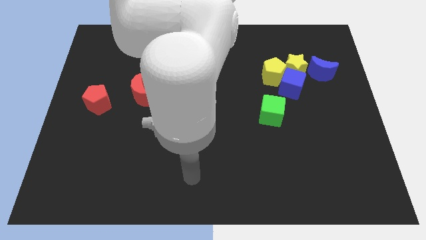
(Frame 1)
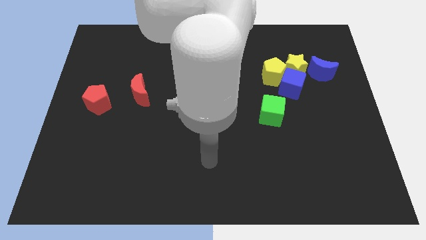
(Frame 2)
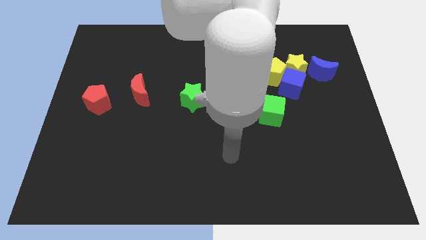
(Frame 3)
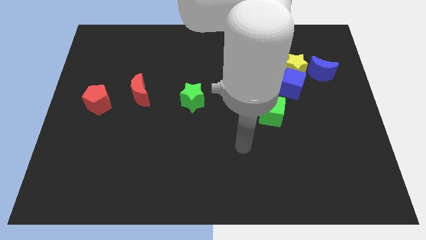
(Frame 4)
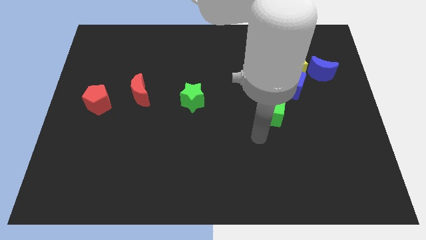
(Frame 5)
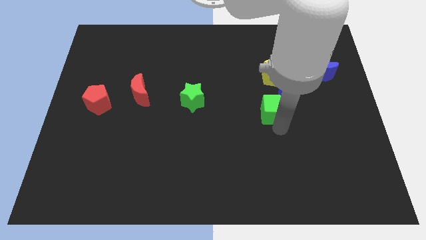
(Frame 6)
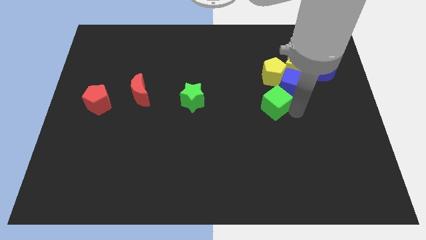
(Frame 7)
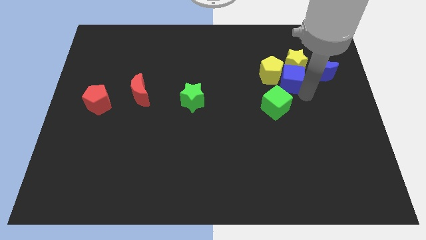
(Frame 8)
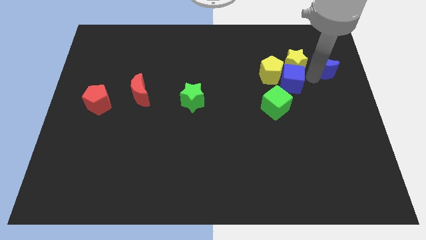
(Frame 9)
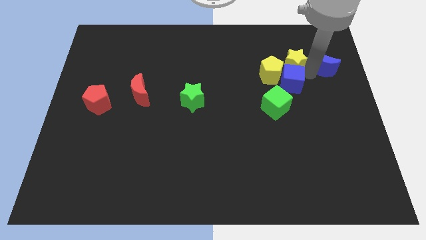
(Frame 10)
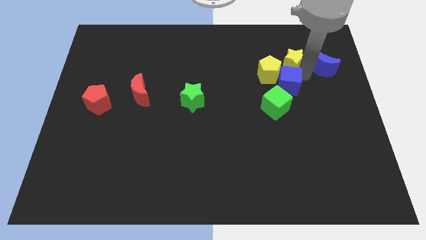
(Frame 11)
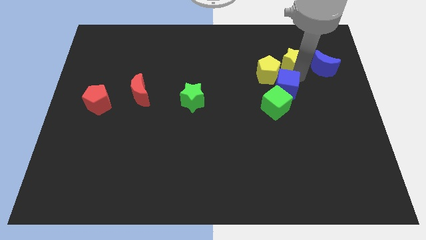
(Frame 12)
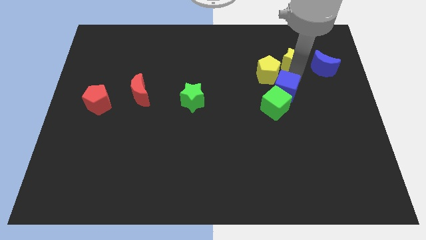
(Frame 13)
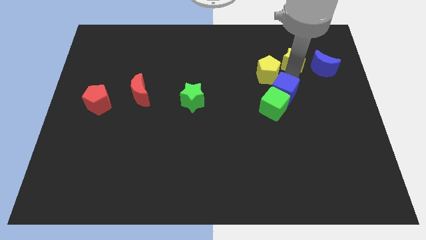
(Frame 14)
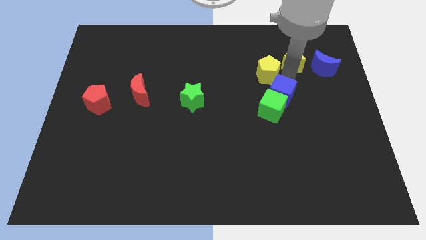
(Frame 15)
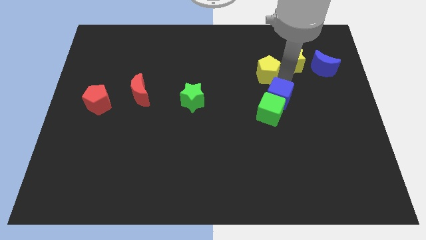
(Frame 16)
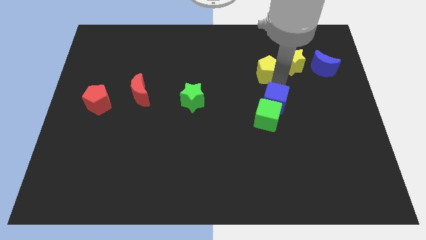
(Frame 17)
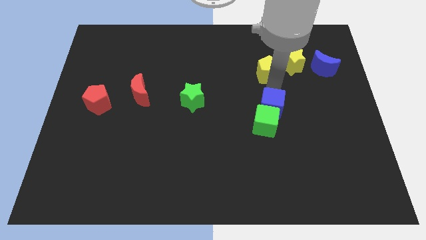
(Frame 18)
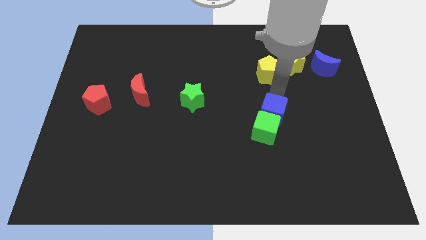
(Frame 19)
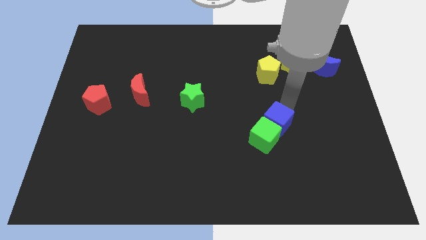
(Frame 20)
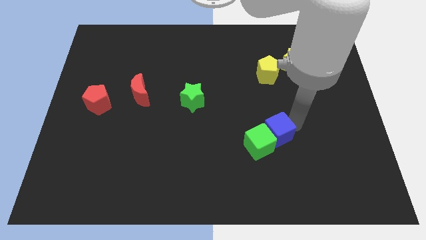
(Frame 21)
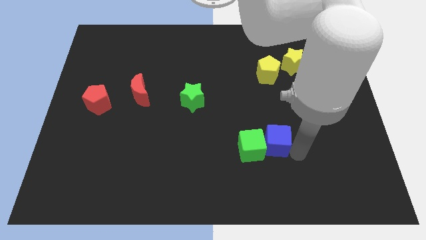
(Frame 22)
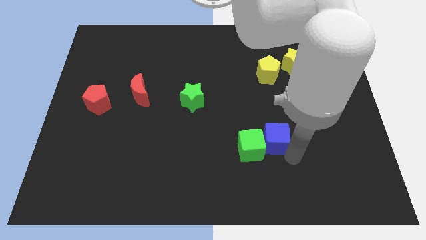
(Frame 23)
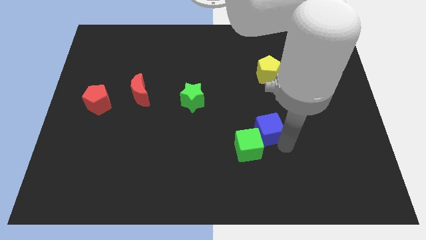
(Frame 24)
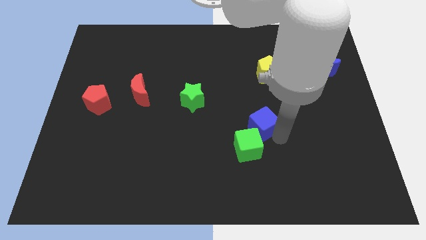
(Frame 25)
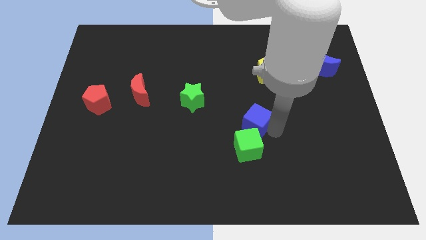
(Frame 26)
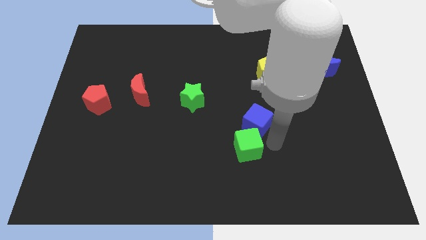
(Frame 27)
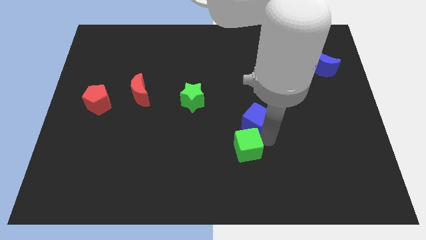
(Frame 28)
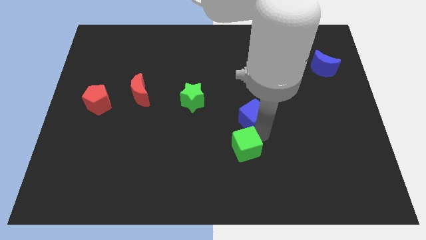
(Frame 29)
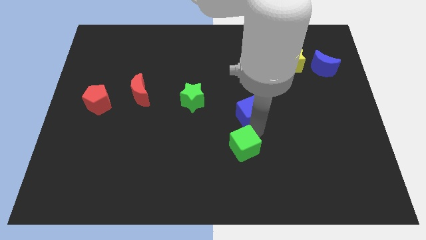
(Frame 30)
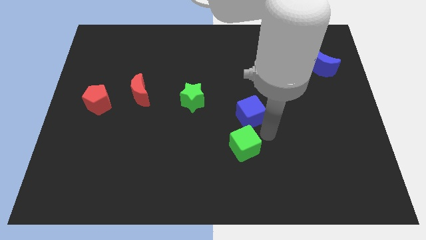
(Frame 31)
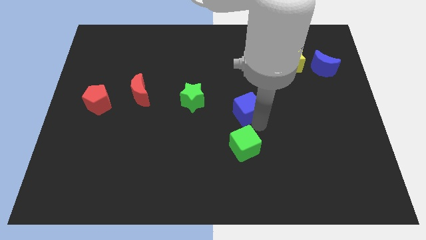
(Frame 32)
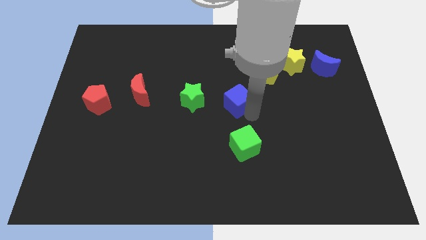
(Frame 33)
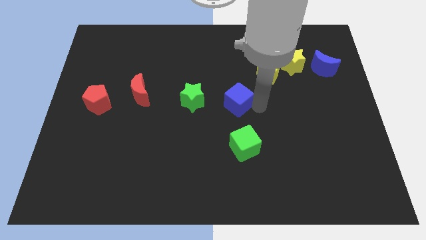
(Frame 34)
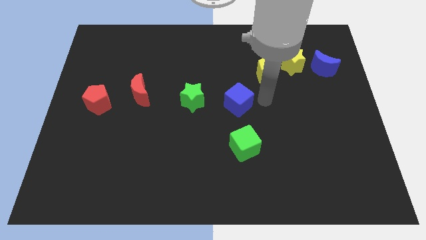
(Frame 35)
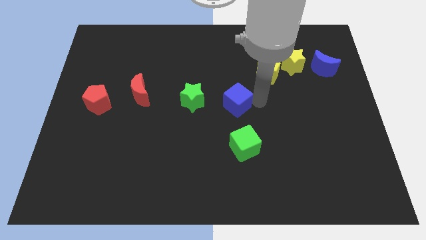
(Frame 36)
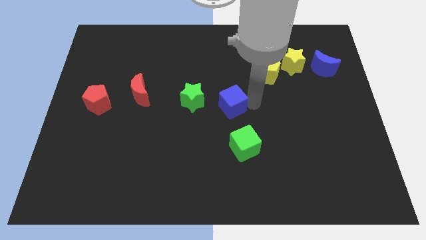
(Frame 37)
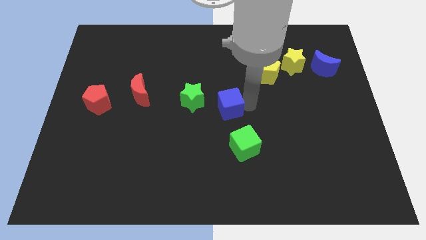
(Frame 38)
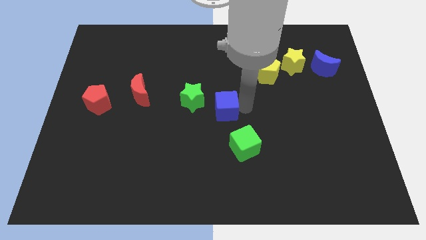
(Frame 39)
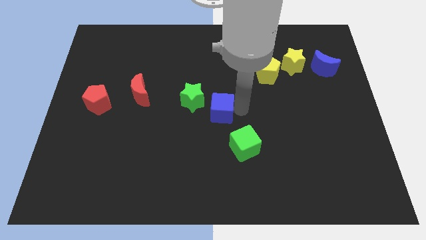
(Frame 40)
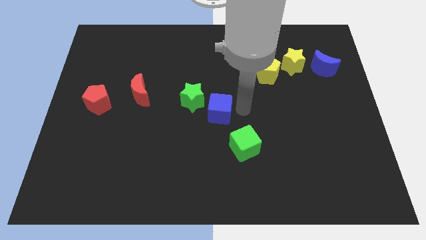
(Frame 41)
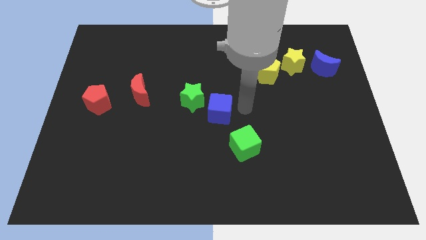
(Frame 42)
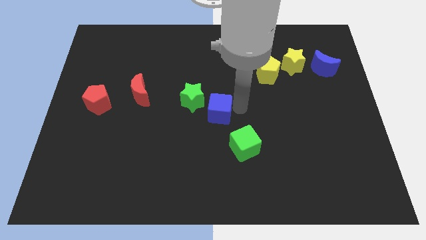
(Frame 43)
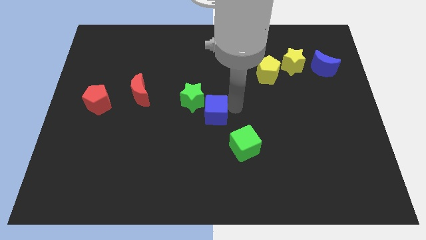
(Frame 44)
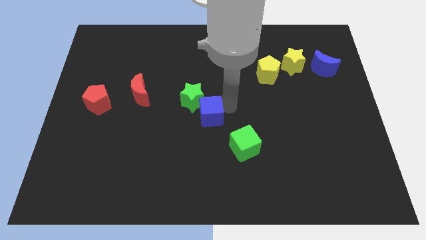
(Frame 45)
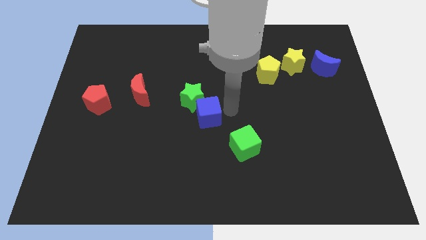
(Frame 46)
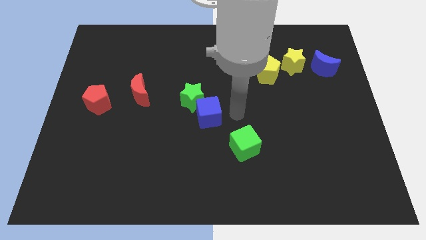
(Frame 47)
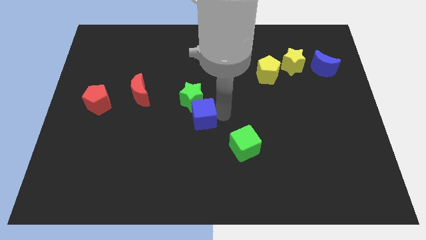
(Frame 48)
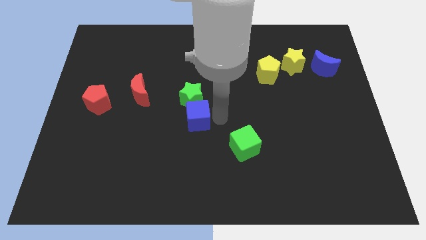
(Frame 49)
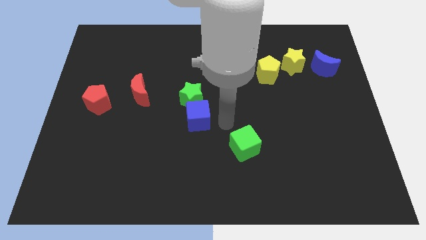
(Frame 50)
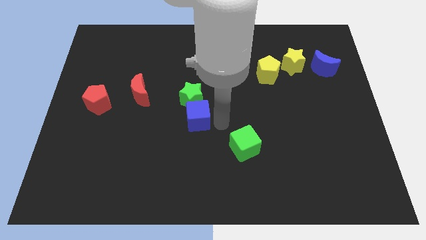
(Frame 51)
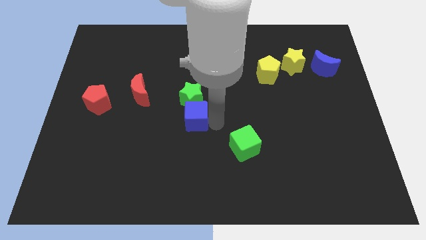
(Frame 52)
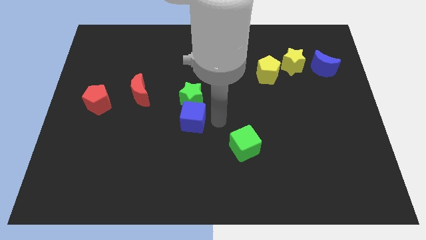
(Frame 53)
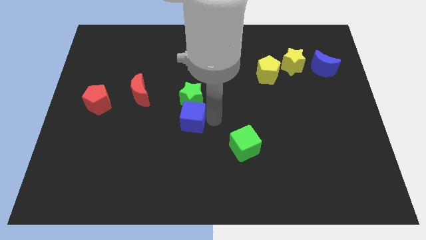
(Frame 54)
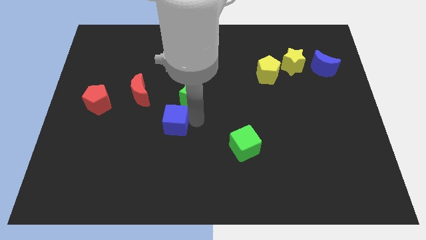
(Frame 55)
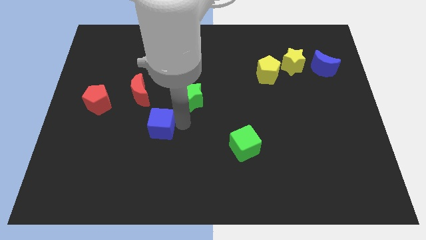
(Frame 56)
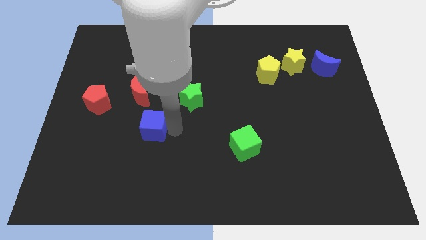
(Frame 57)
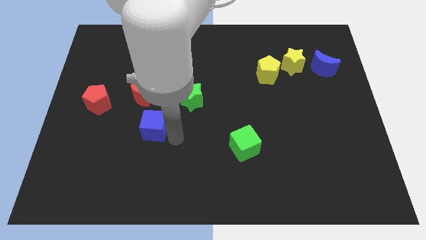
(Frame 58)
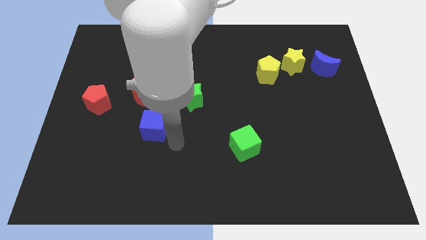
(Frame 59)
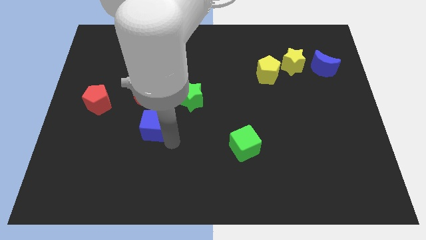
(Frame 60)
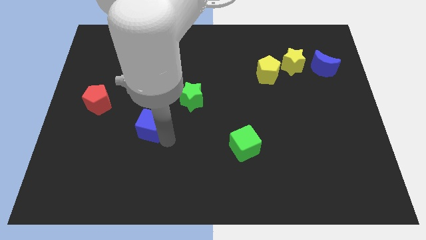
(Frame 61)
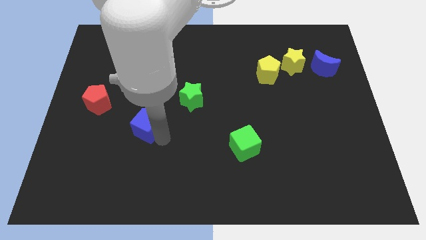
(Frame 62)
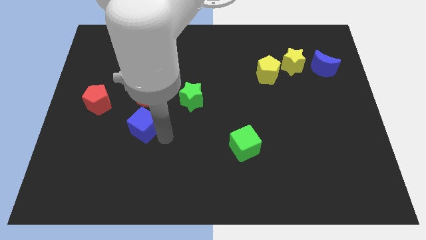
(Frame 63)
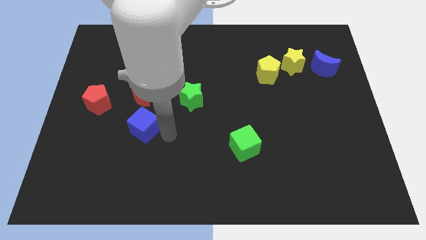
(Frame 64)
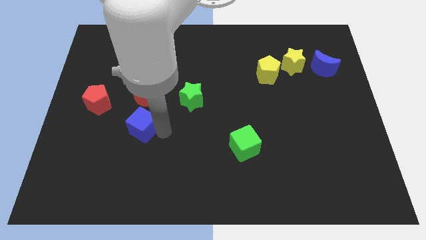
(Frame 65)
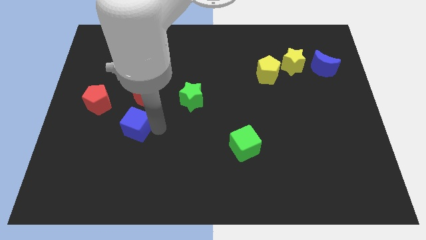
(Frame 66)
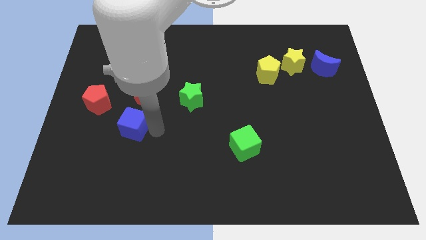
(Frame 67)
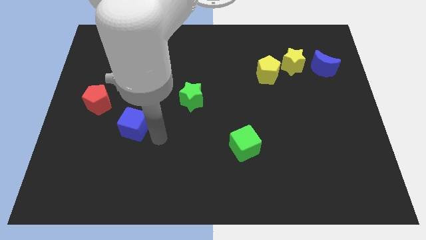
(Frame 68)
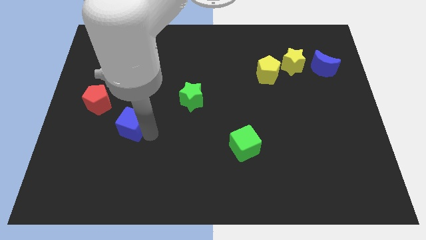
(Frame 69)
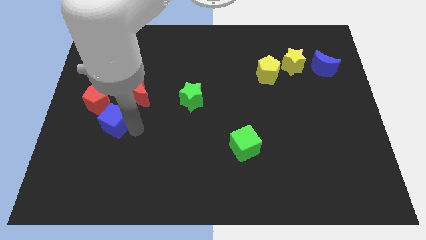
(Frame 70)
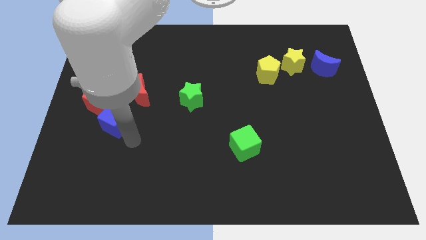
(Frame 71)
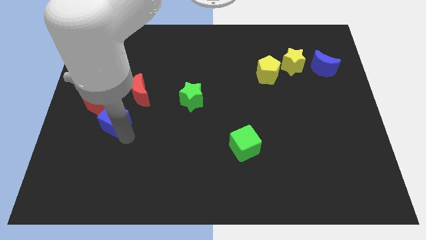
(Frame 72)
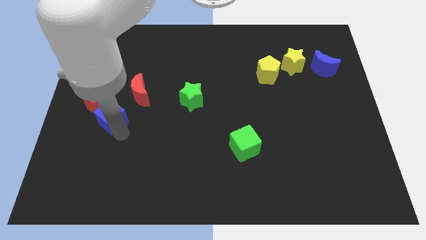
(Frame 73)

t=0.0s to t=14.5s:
put the blue cube to the red pentagon

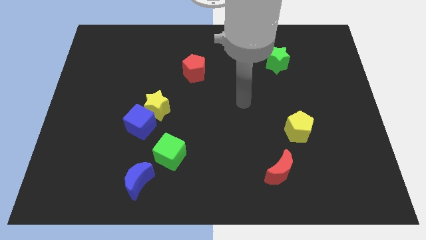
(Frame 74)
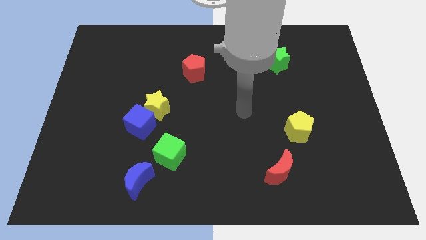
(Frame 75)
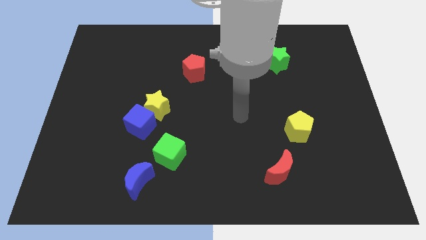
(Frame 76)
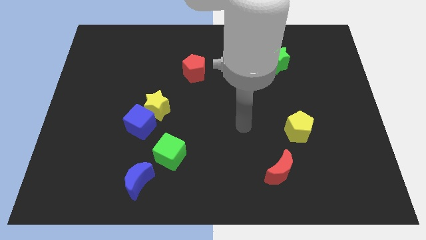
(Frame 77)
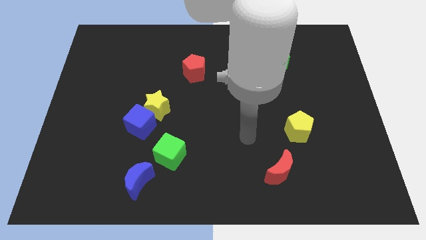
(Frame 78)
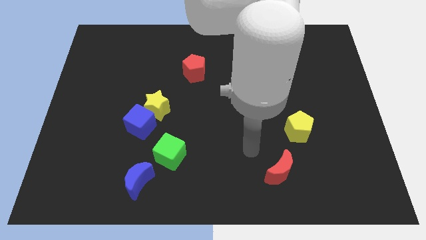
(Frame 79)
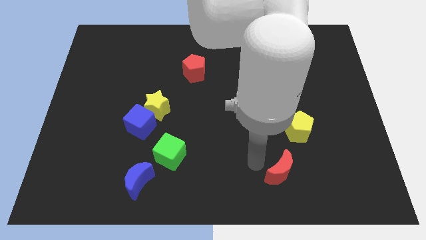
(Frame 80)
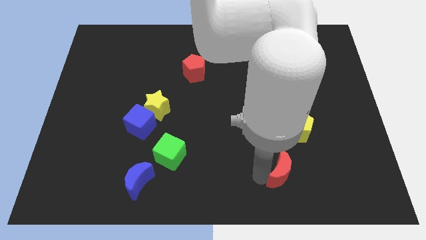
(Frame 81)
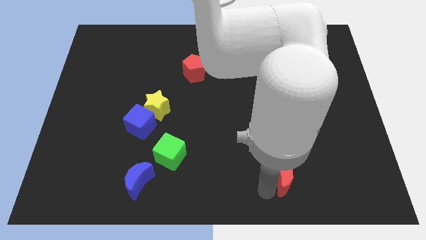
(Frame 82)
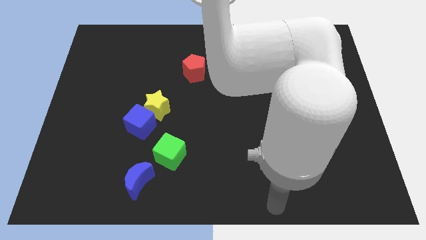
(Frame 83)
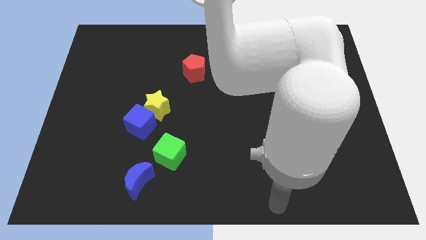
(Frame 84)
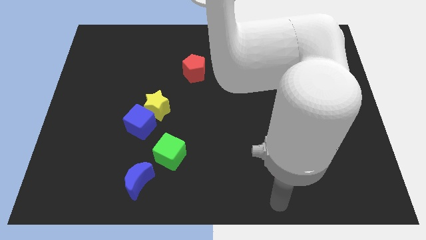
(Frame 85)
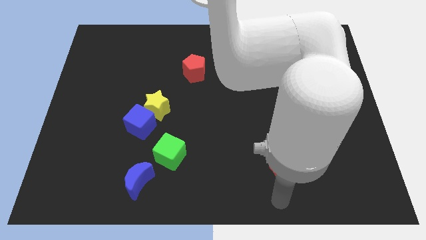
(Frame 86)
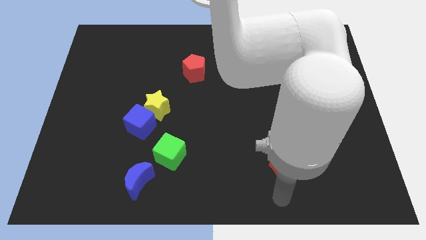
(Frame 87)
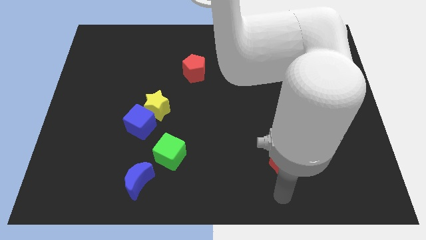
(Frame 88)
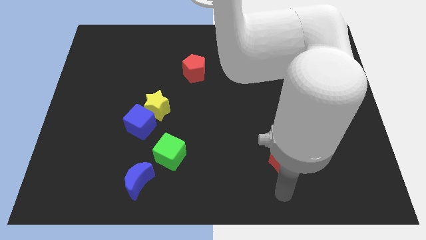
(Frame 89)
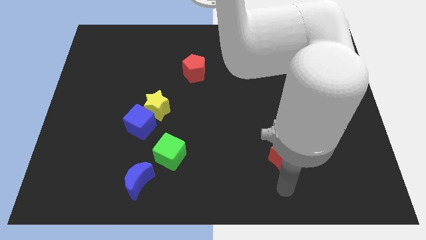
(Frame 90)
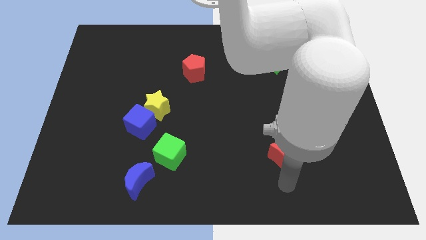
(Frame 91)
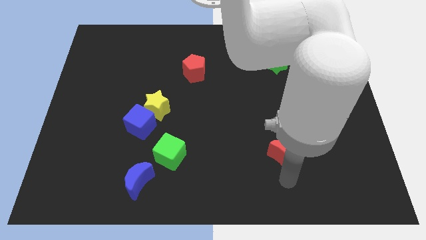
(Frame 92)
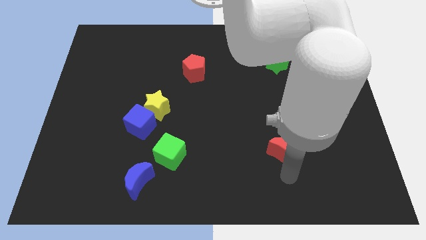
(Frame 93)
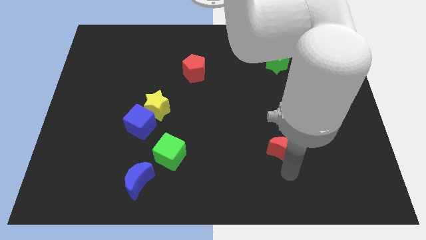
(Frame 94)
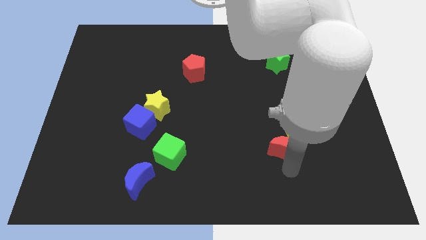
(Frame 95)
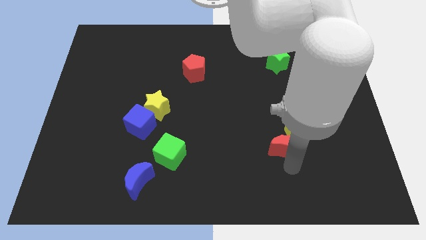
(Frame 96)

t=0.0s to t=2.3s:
push the red moon towards the yellow pentagon
